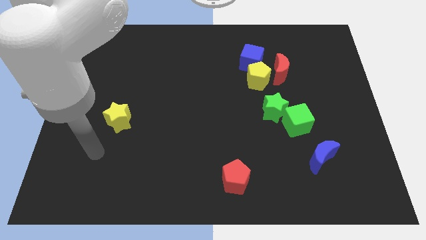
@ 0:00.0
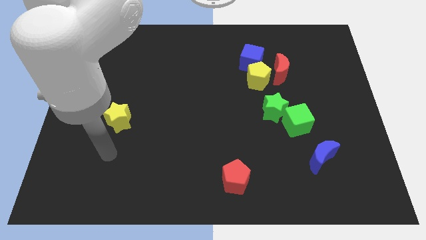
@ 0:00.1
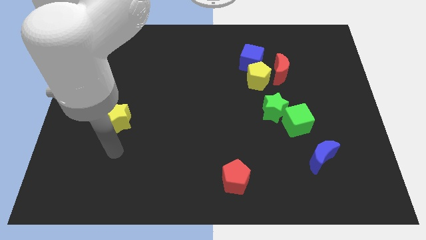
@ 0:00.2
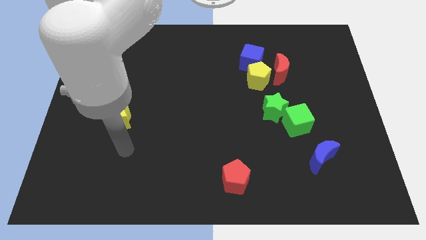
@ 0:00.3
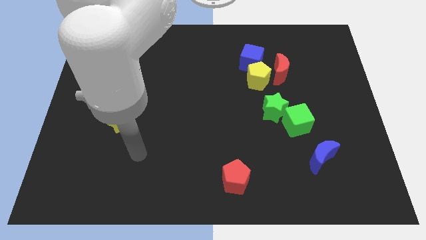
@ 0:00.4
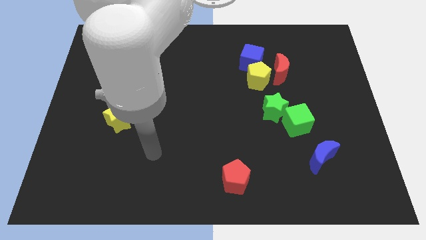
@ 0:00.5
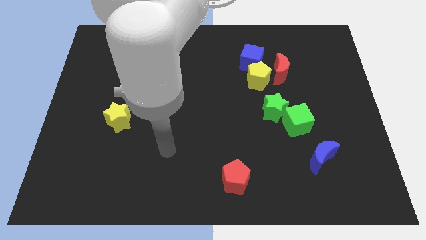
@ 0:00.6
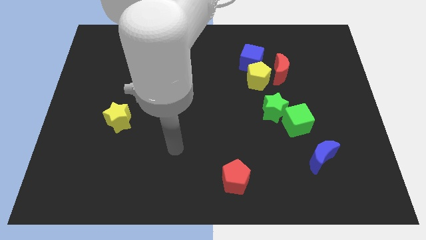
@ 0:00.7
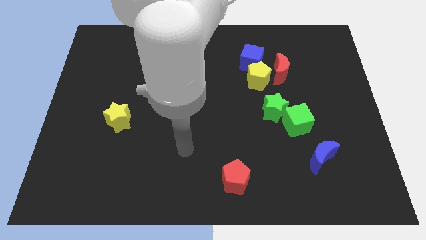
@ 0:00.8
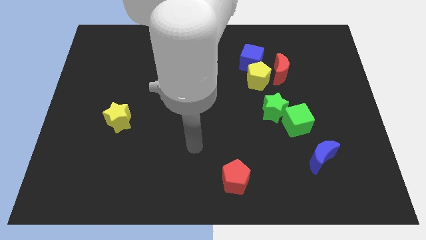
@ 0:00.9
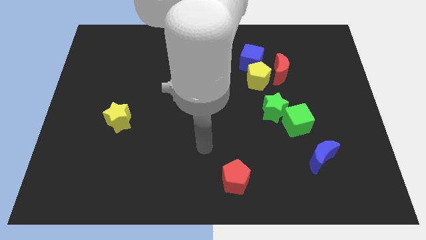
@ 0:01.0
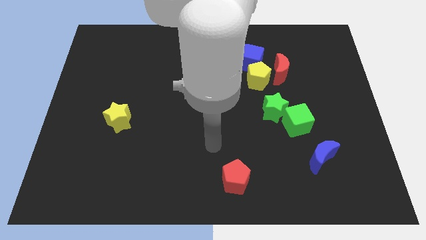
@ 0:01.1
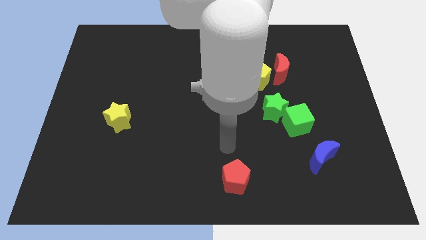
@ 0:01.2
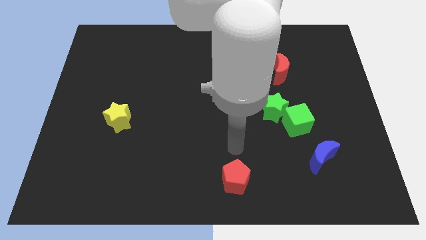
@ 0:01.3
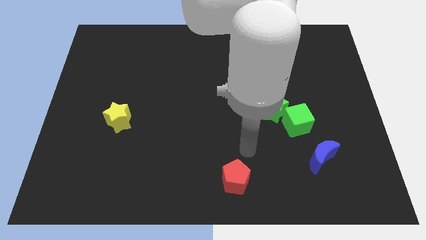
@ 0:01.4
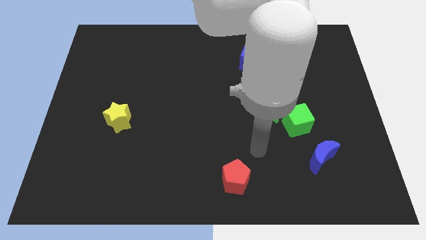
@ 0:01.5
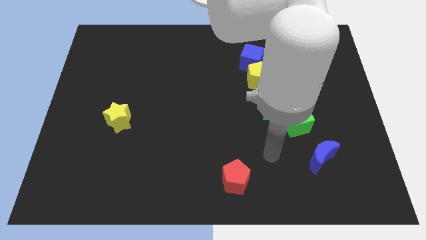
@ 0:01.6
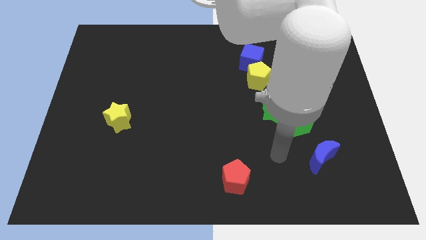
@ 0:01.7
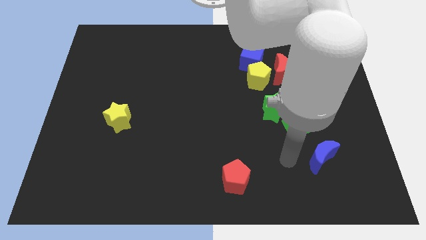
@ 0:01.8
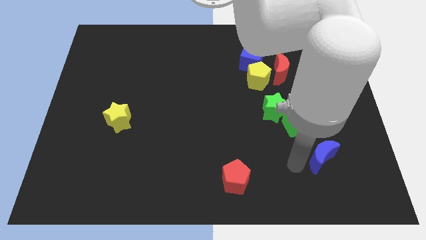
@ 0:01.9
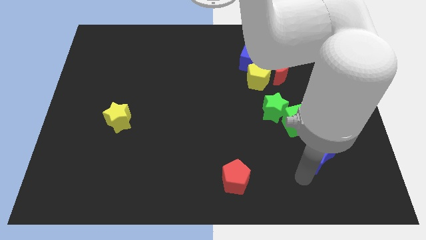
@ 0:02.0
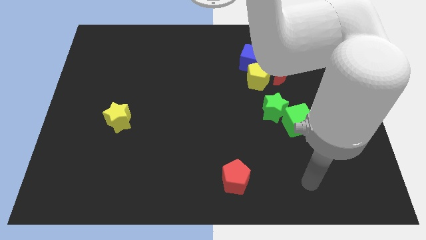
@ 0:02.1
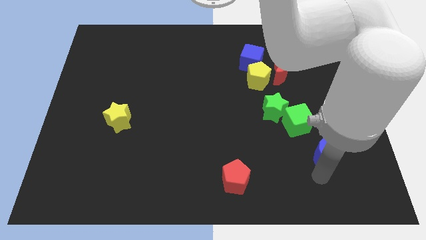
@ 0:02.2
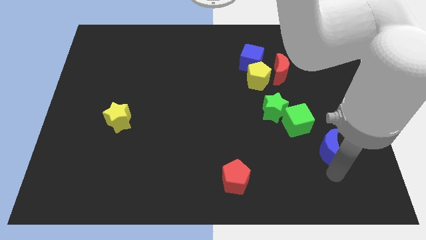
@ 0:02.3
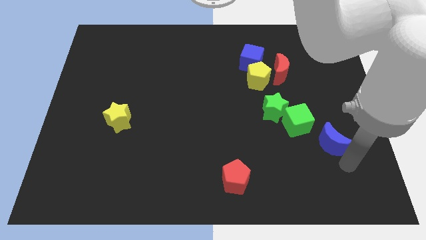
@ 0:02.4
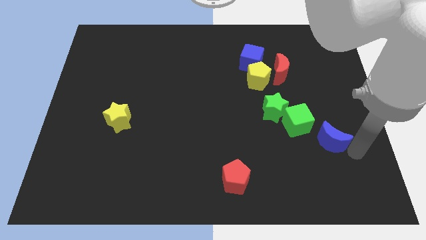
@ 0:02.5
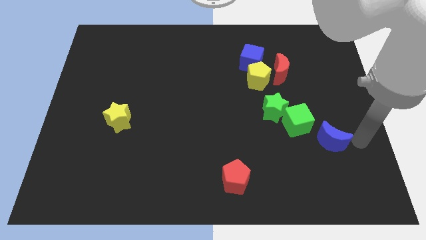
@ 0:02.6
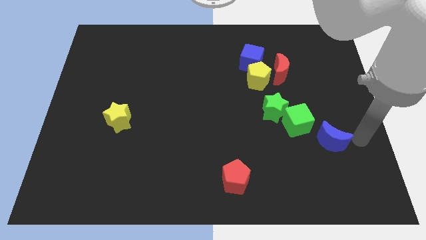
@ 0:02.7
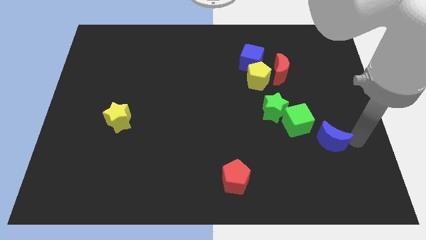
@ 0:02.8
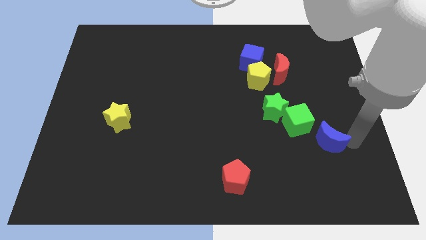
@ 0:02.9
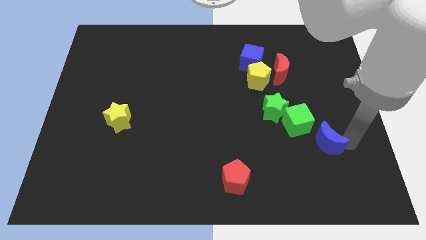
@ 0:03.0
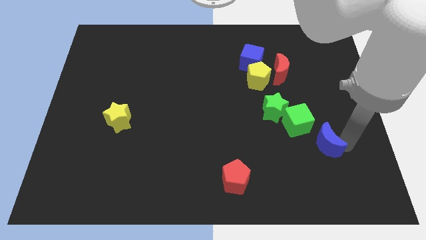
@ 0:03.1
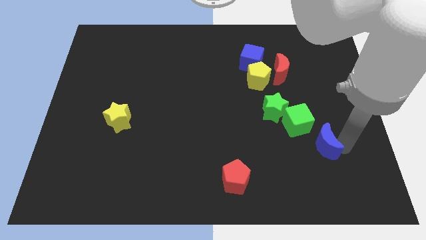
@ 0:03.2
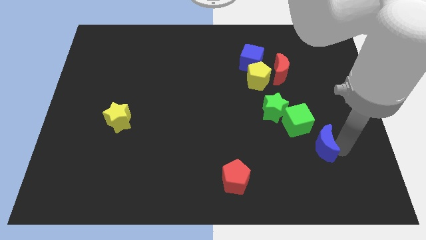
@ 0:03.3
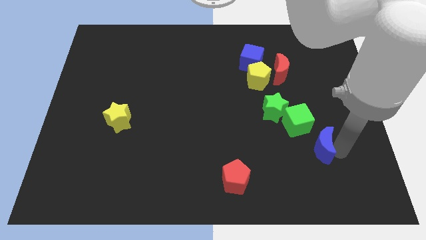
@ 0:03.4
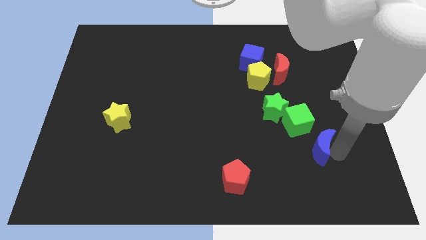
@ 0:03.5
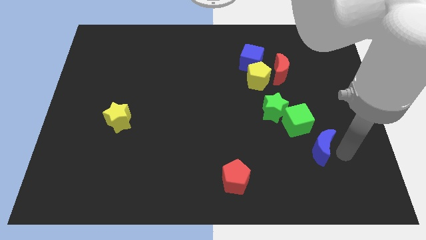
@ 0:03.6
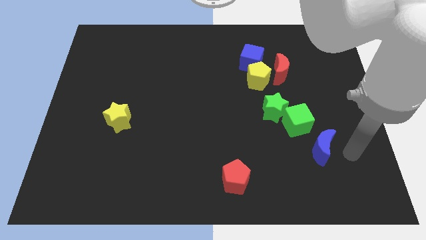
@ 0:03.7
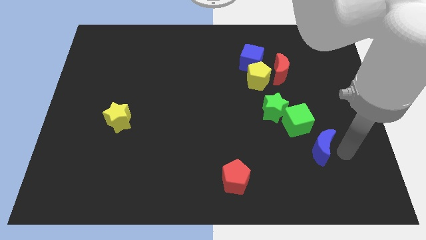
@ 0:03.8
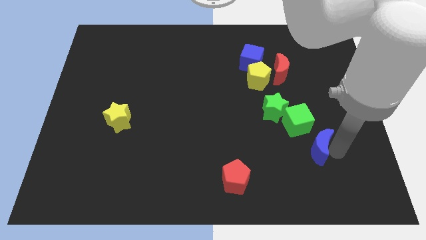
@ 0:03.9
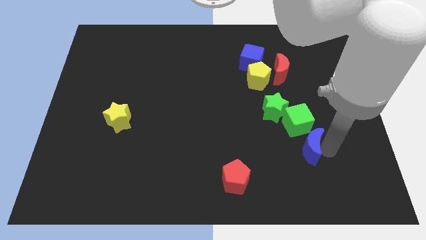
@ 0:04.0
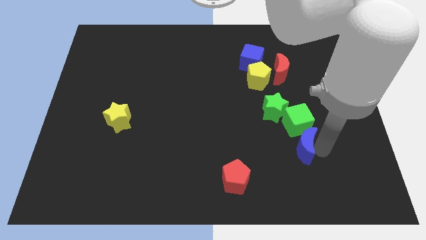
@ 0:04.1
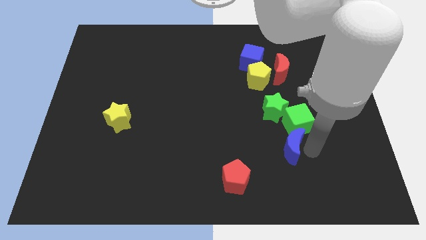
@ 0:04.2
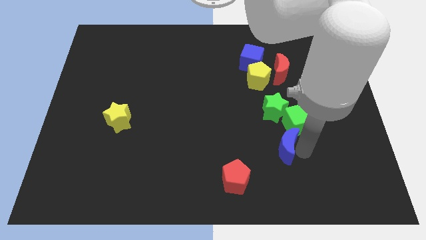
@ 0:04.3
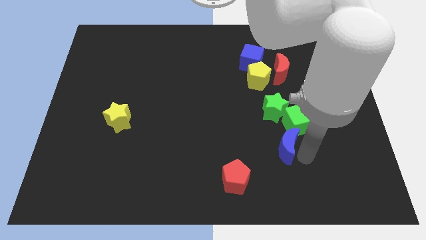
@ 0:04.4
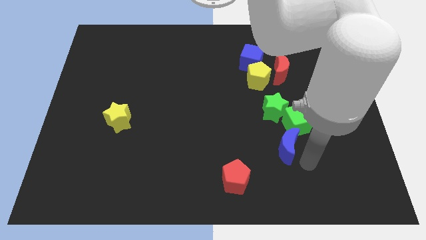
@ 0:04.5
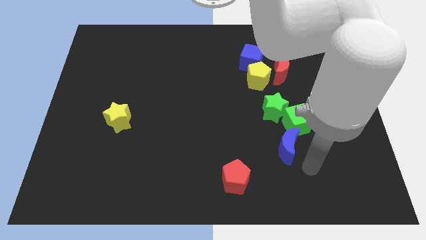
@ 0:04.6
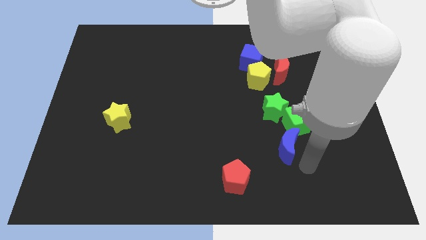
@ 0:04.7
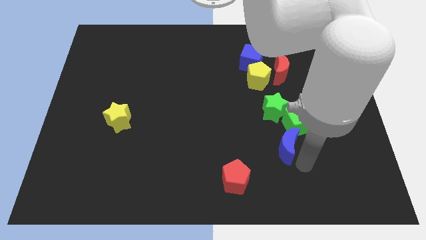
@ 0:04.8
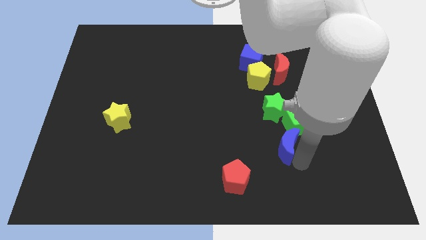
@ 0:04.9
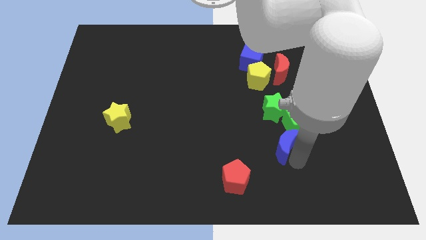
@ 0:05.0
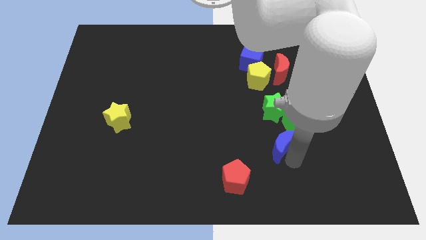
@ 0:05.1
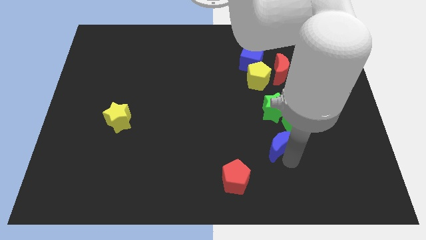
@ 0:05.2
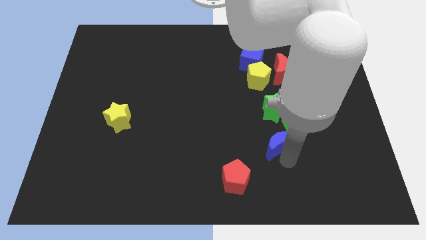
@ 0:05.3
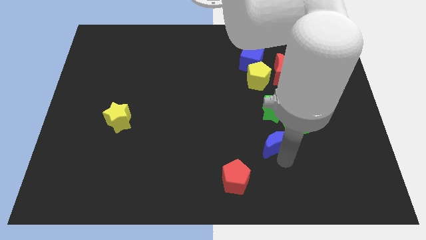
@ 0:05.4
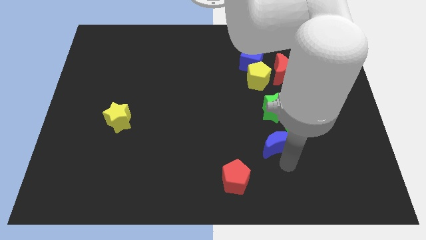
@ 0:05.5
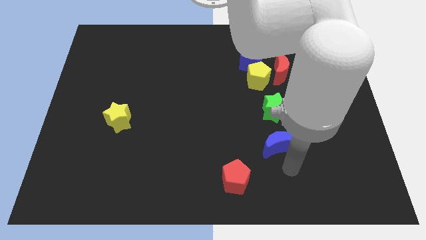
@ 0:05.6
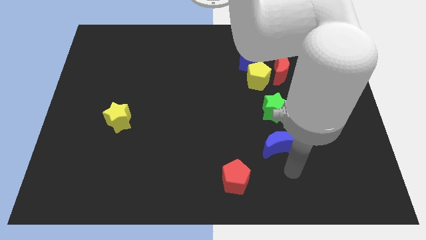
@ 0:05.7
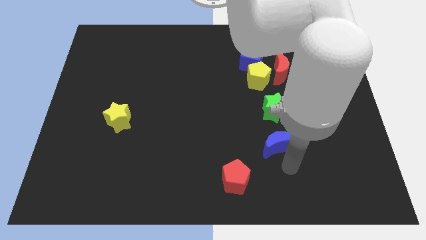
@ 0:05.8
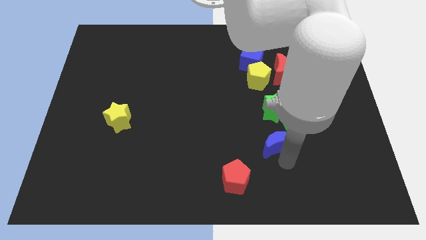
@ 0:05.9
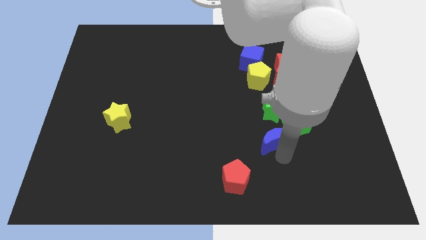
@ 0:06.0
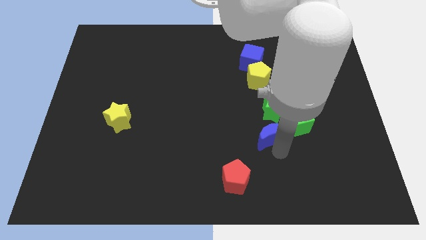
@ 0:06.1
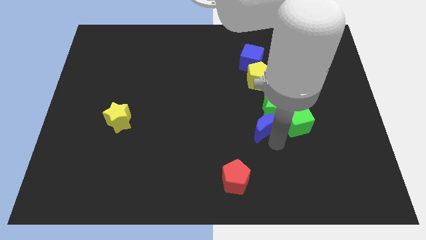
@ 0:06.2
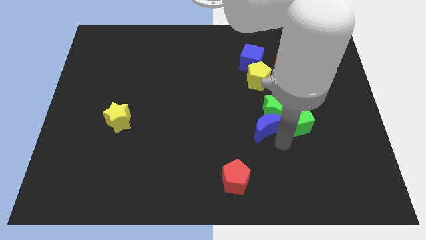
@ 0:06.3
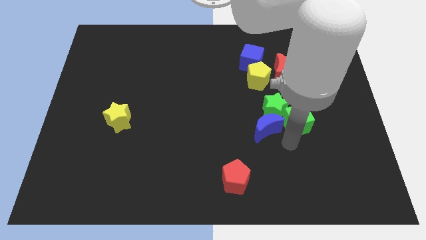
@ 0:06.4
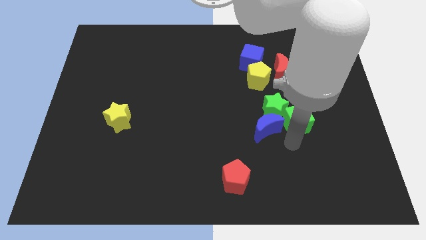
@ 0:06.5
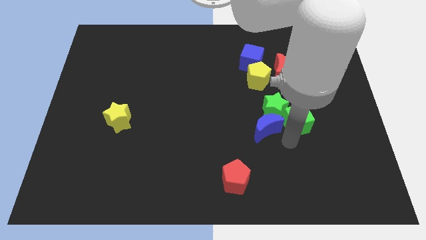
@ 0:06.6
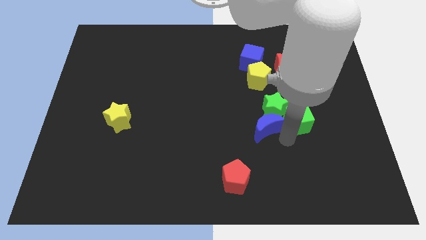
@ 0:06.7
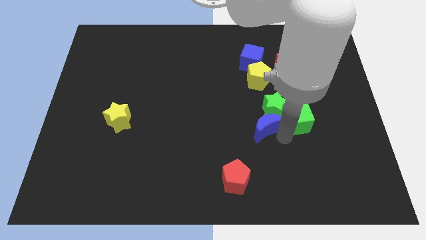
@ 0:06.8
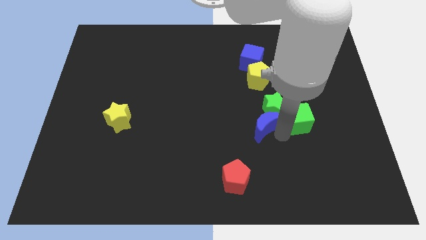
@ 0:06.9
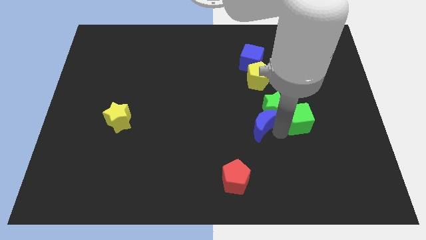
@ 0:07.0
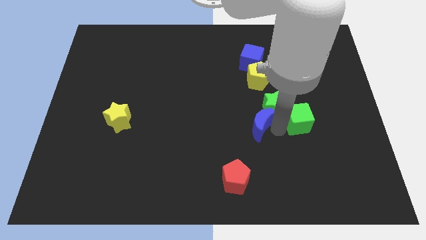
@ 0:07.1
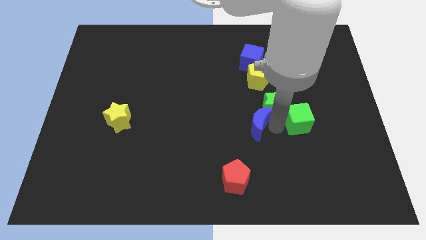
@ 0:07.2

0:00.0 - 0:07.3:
push the blue moon to the middle of the board
